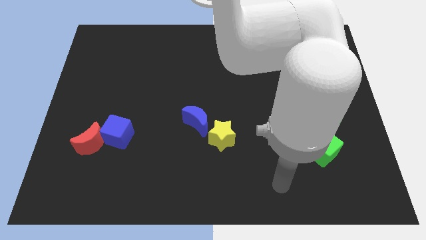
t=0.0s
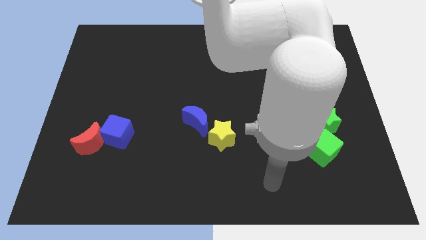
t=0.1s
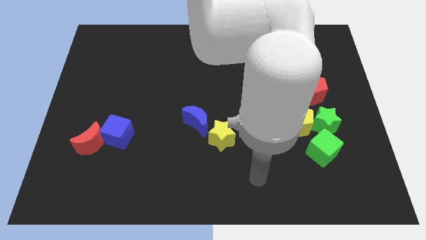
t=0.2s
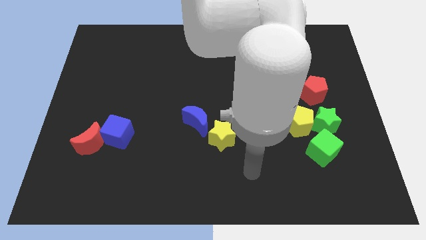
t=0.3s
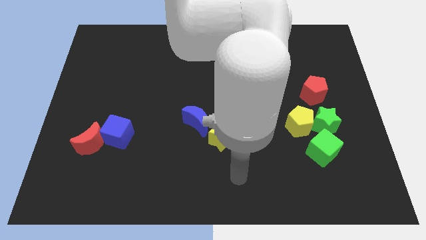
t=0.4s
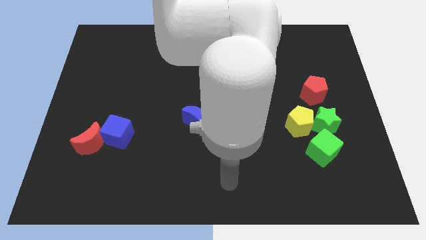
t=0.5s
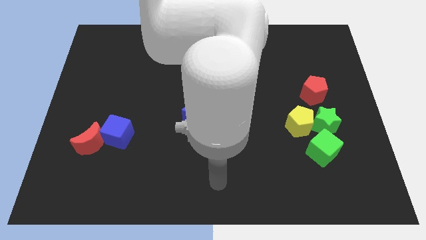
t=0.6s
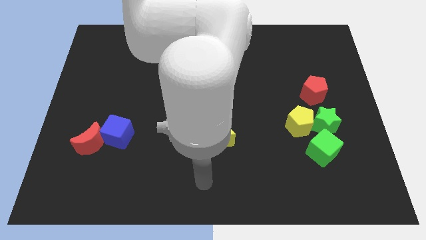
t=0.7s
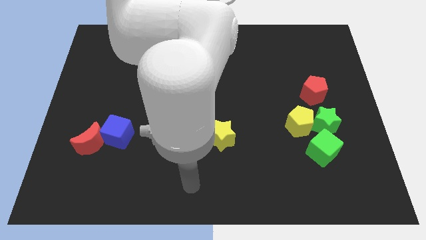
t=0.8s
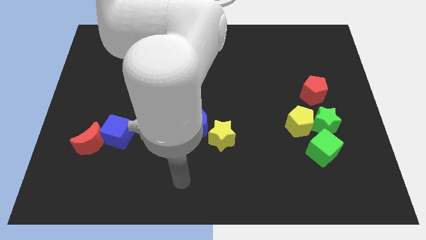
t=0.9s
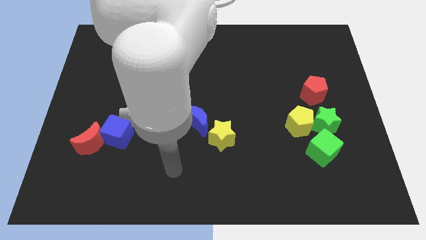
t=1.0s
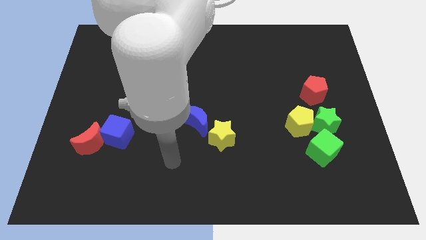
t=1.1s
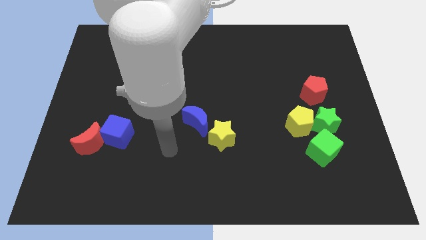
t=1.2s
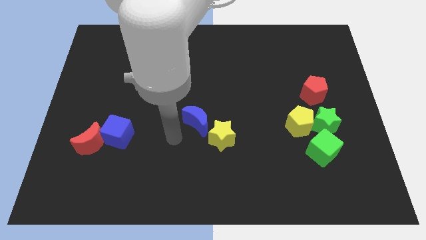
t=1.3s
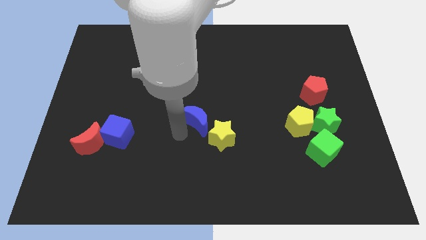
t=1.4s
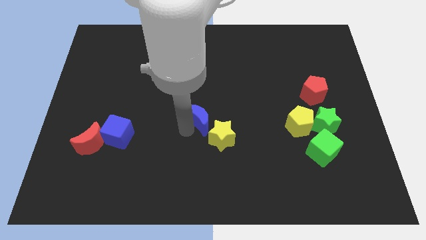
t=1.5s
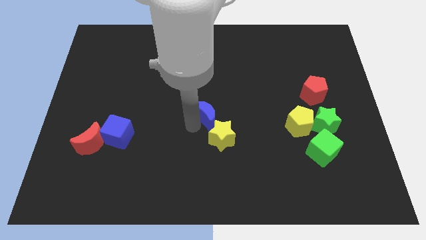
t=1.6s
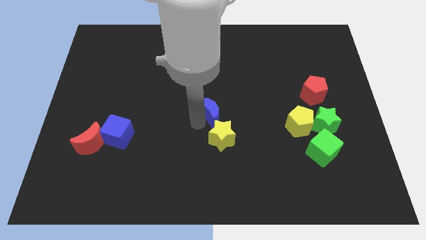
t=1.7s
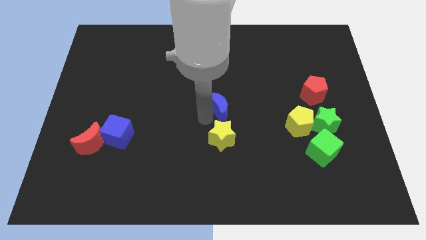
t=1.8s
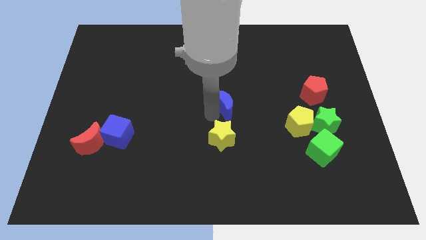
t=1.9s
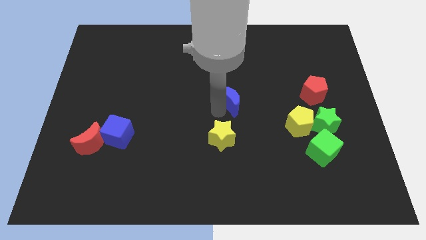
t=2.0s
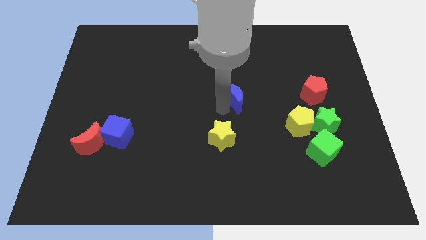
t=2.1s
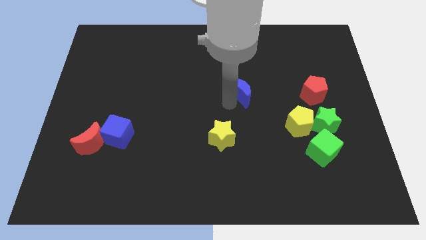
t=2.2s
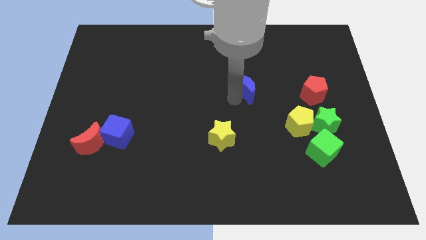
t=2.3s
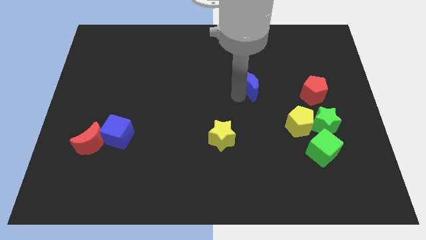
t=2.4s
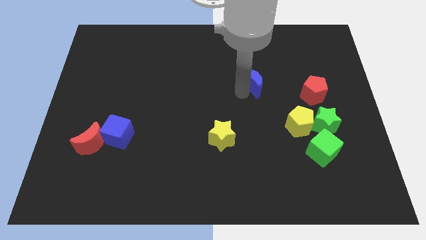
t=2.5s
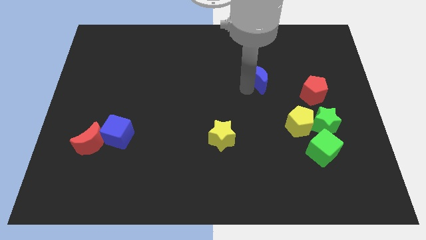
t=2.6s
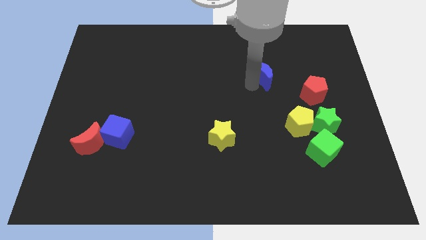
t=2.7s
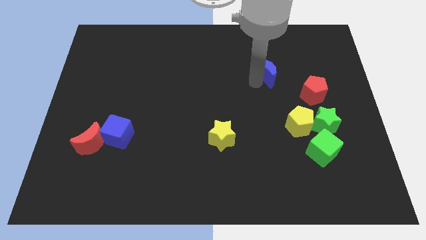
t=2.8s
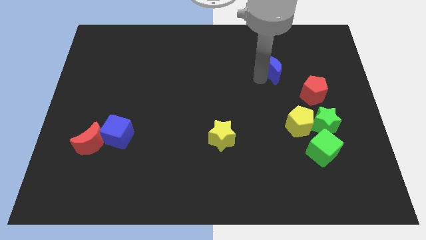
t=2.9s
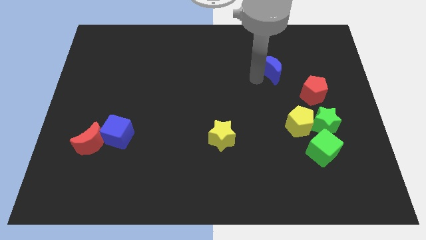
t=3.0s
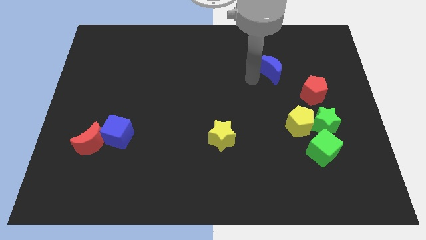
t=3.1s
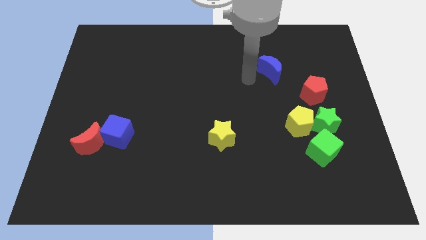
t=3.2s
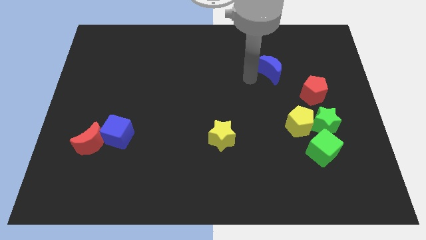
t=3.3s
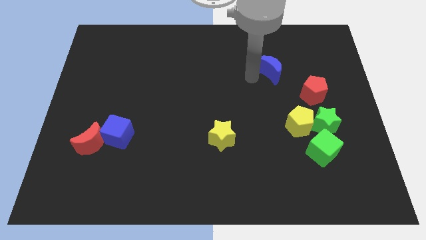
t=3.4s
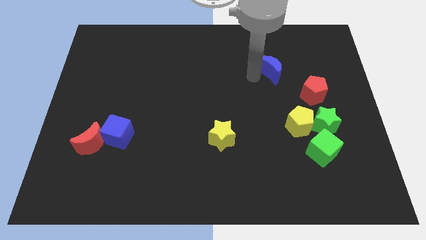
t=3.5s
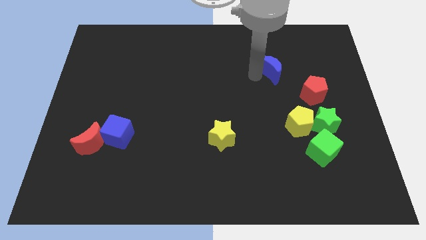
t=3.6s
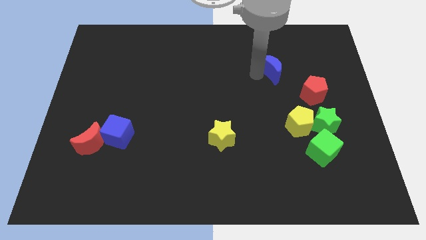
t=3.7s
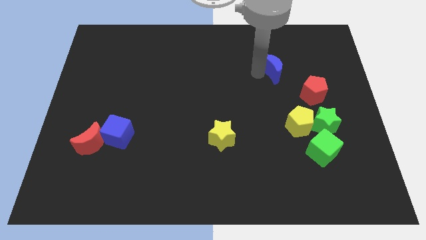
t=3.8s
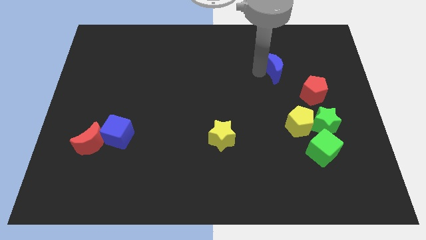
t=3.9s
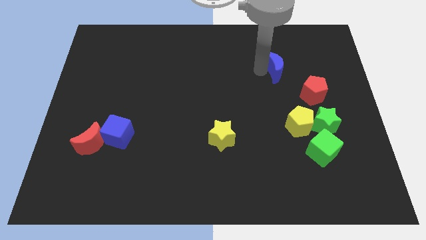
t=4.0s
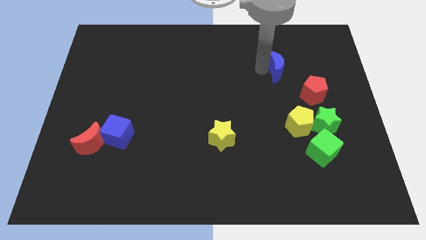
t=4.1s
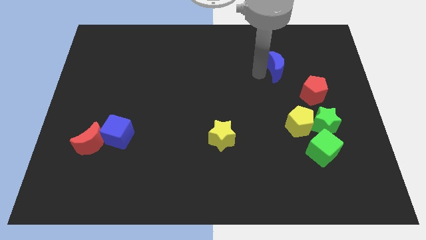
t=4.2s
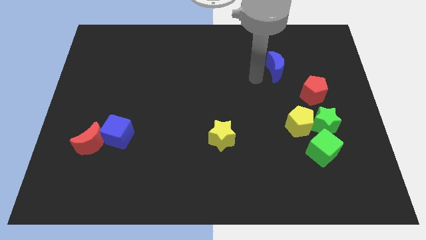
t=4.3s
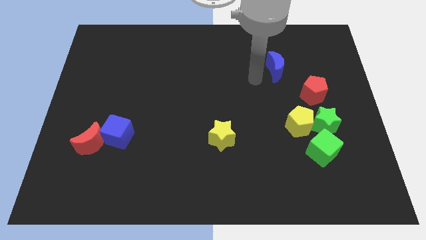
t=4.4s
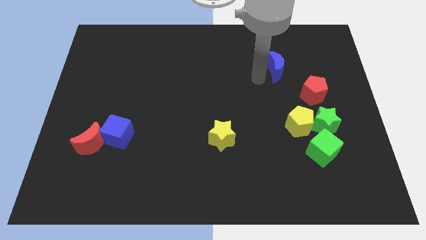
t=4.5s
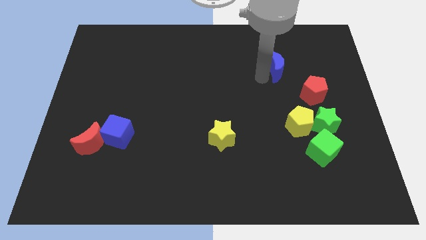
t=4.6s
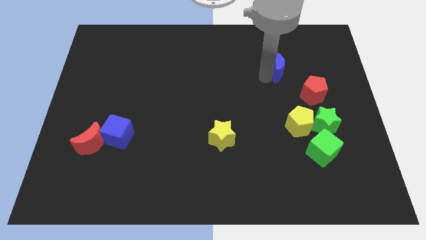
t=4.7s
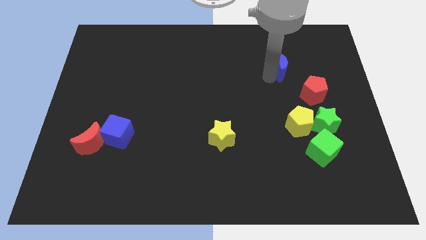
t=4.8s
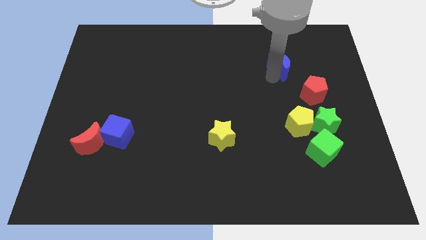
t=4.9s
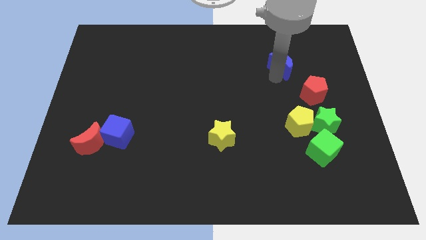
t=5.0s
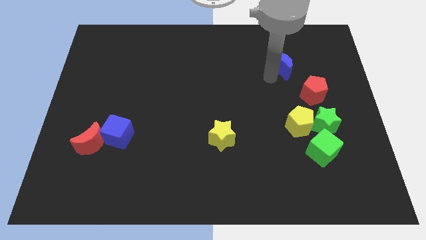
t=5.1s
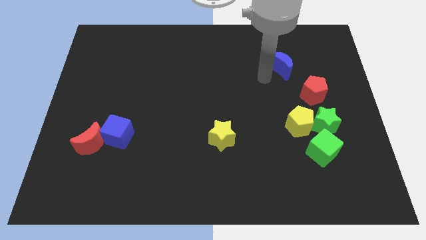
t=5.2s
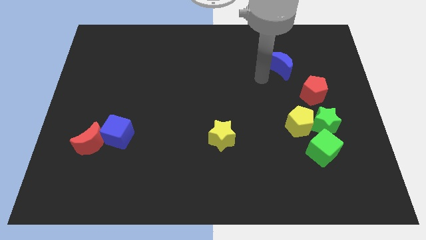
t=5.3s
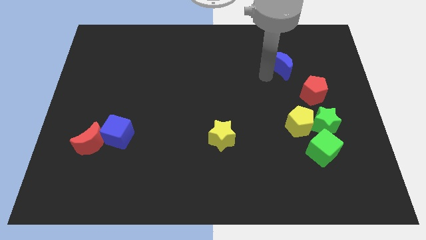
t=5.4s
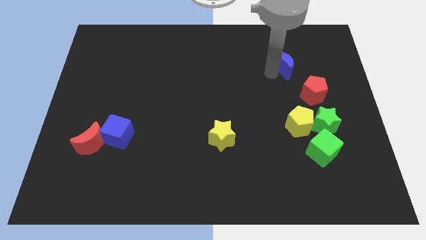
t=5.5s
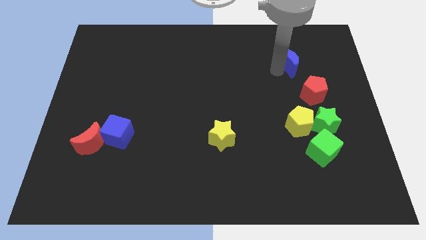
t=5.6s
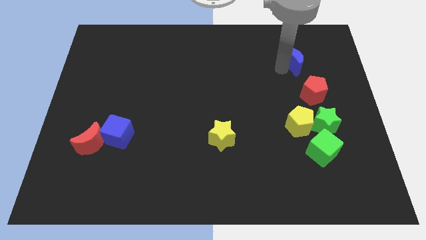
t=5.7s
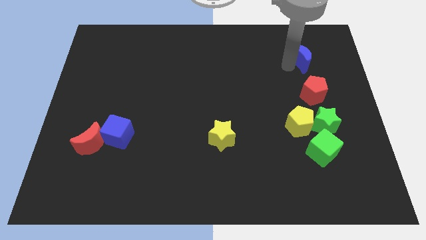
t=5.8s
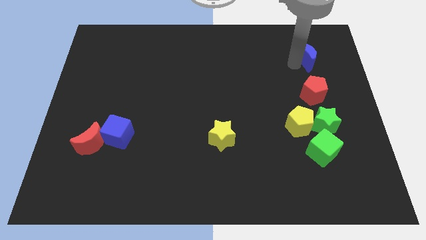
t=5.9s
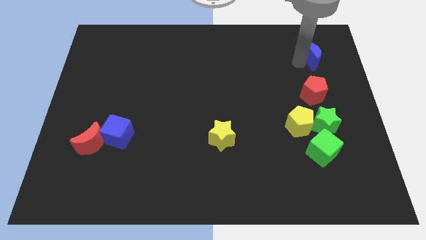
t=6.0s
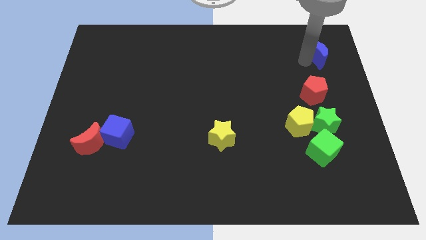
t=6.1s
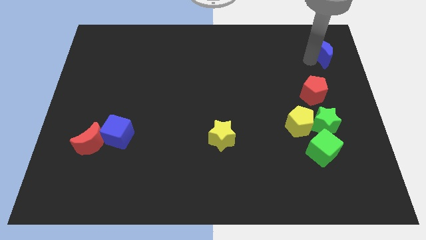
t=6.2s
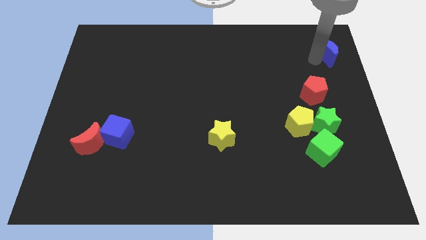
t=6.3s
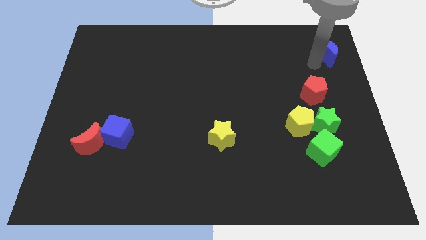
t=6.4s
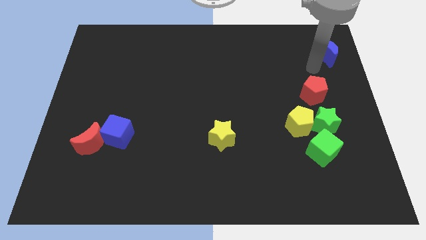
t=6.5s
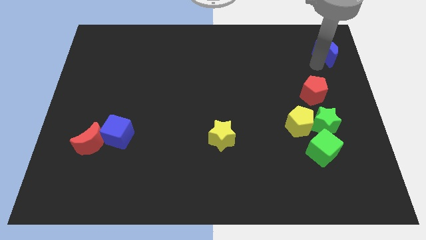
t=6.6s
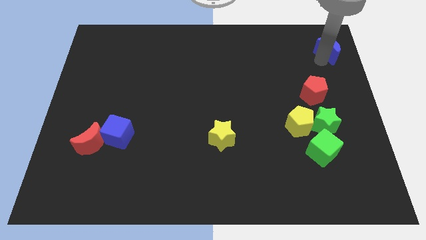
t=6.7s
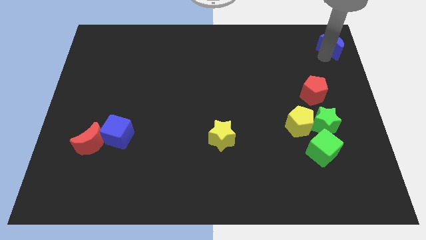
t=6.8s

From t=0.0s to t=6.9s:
move the blue moon to the top right
